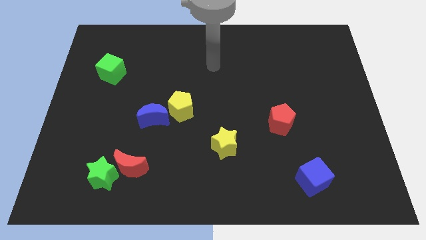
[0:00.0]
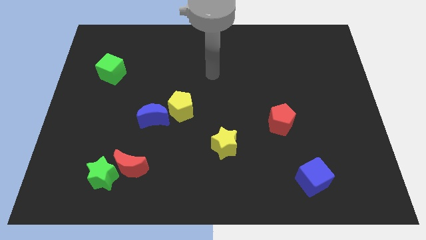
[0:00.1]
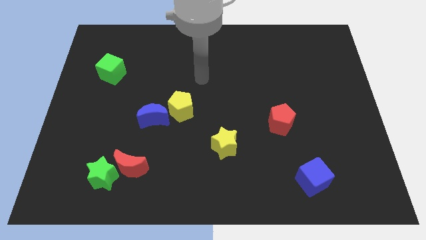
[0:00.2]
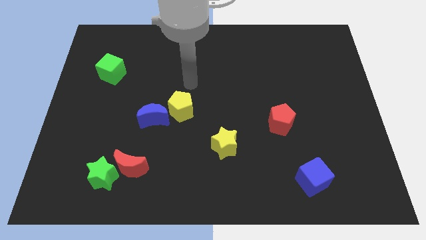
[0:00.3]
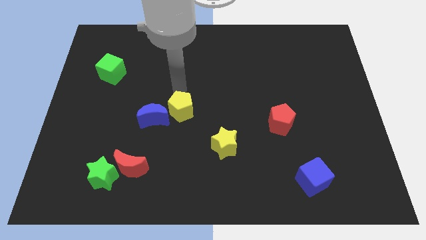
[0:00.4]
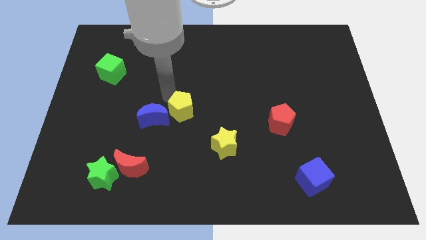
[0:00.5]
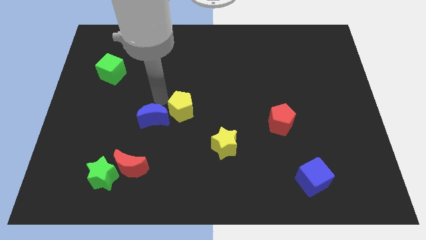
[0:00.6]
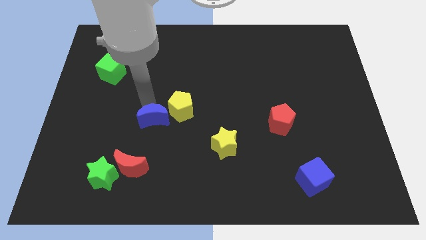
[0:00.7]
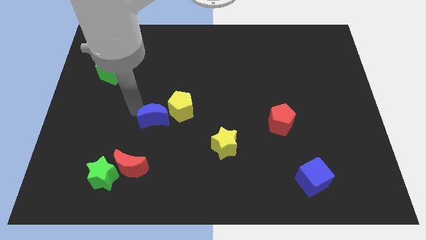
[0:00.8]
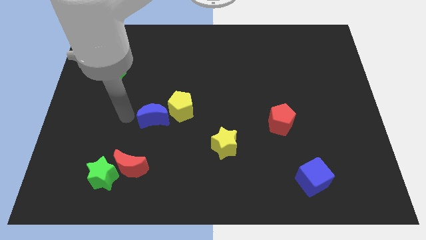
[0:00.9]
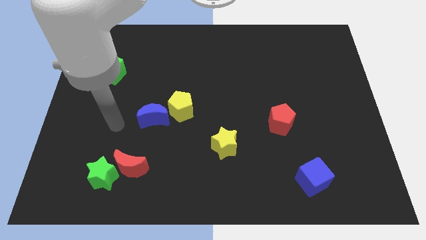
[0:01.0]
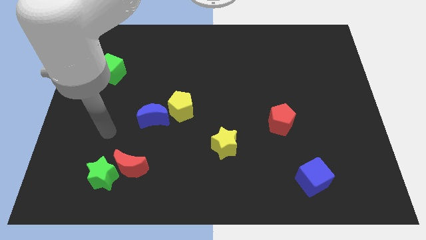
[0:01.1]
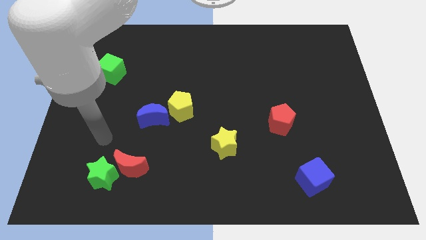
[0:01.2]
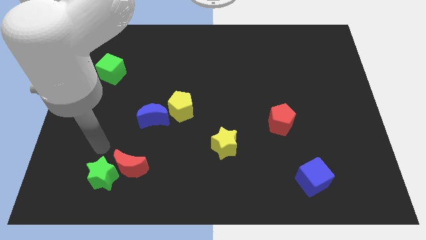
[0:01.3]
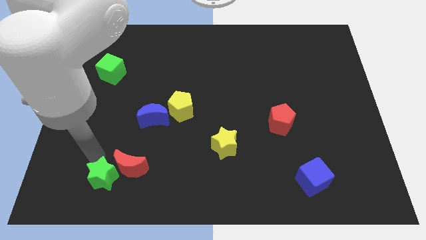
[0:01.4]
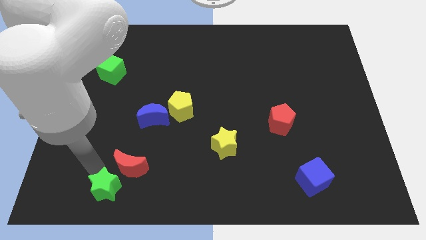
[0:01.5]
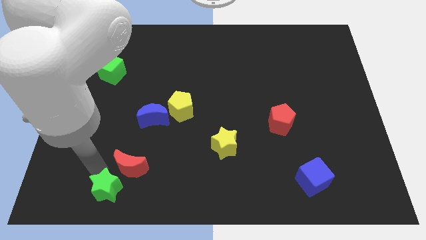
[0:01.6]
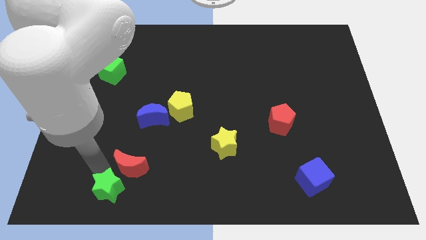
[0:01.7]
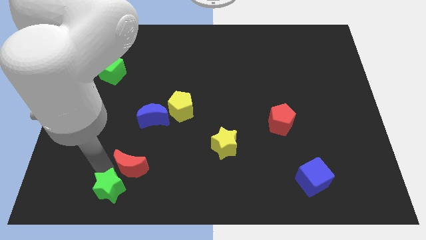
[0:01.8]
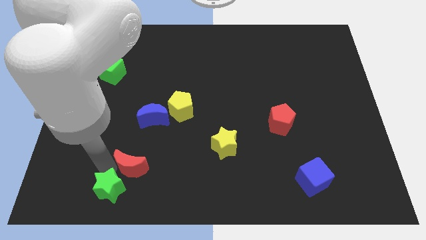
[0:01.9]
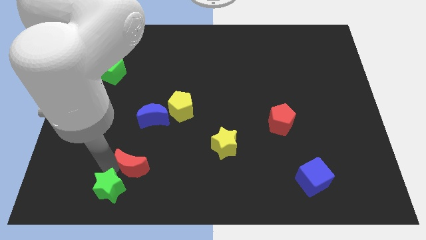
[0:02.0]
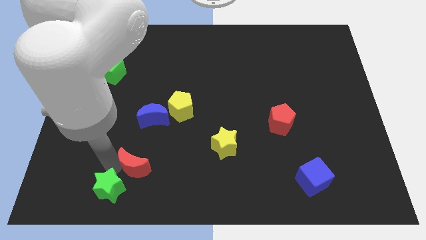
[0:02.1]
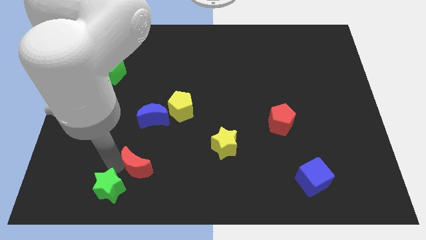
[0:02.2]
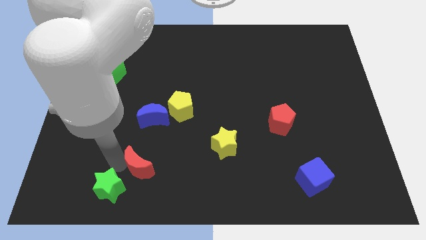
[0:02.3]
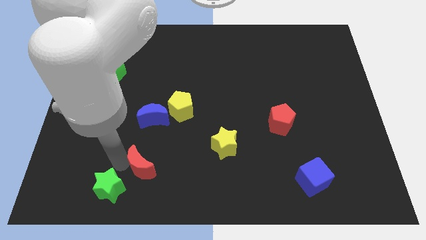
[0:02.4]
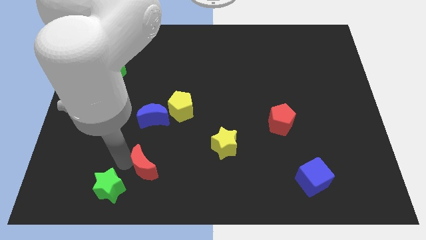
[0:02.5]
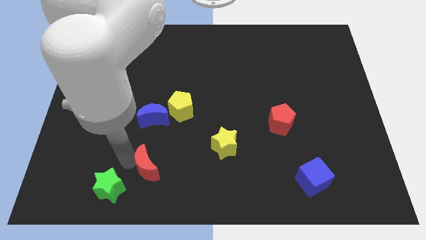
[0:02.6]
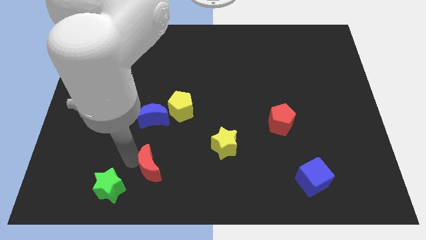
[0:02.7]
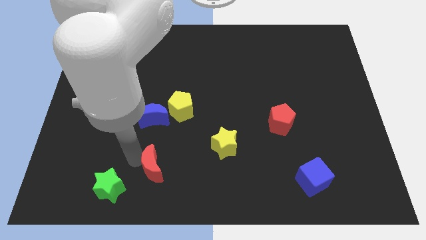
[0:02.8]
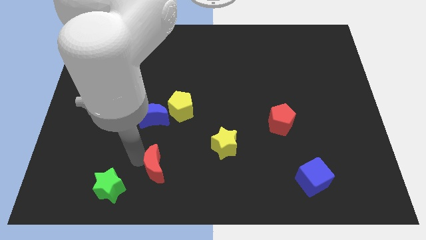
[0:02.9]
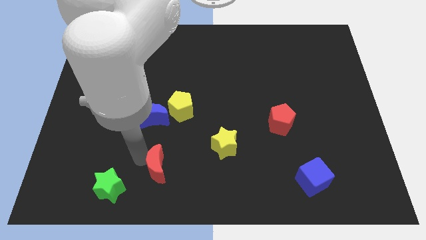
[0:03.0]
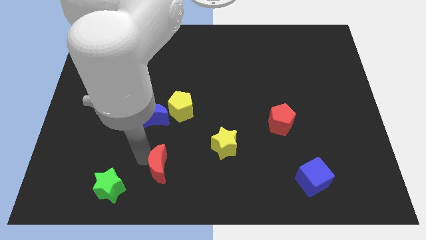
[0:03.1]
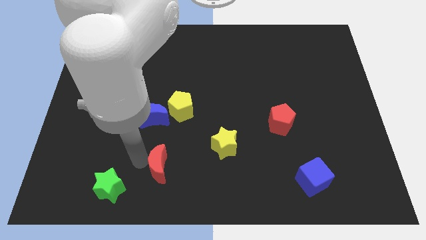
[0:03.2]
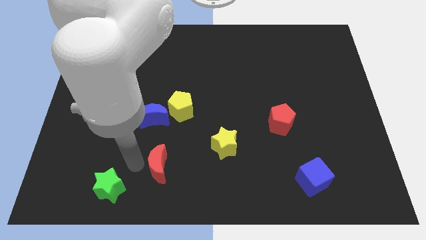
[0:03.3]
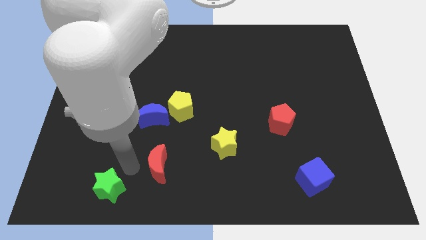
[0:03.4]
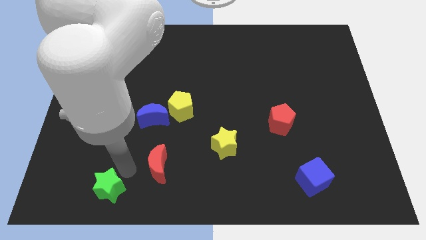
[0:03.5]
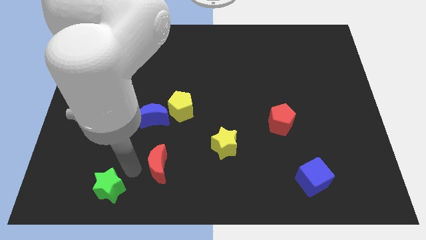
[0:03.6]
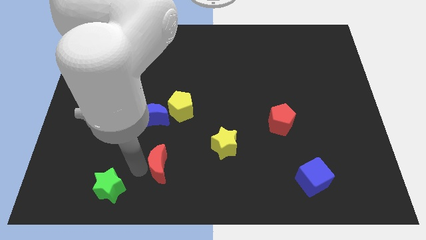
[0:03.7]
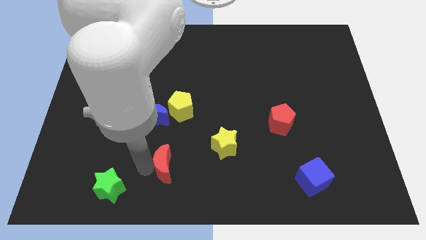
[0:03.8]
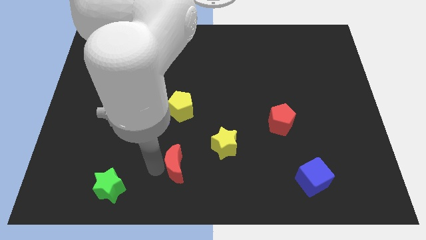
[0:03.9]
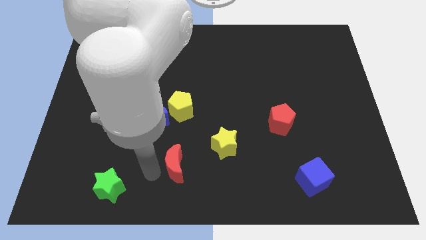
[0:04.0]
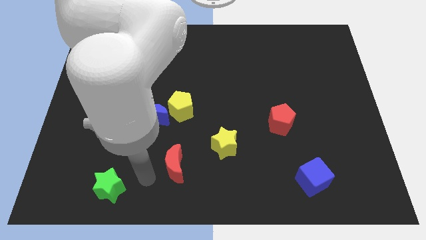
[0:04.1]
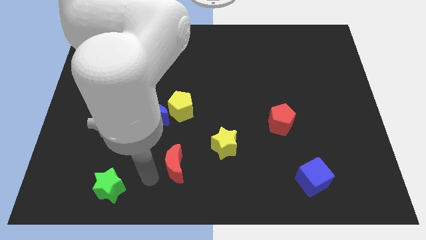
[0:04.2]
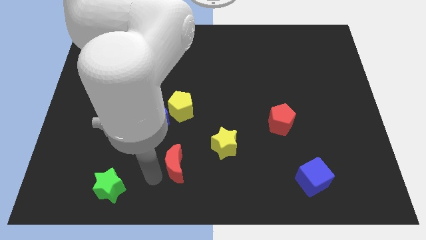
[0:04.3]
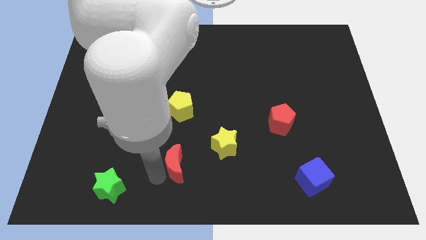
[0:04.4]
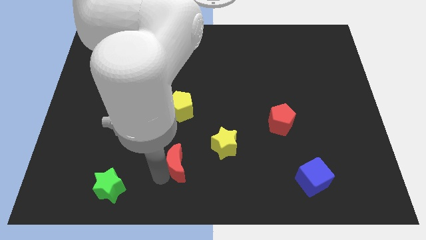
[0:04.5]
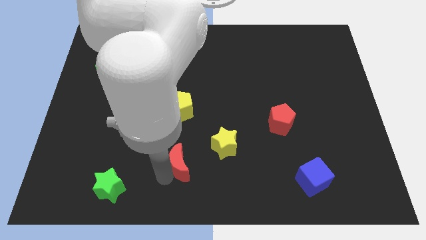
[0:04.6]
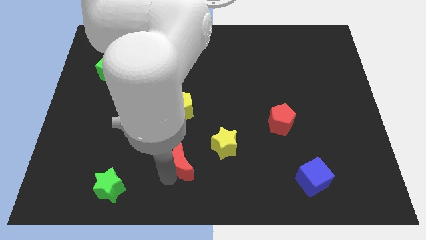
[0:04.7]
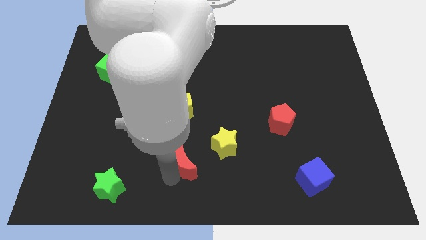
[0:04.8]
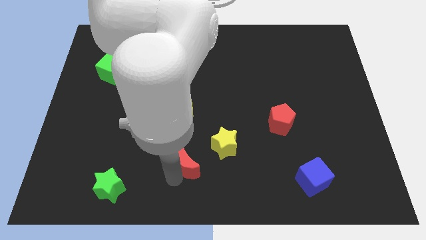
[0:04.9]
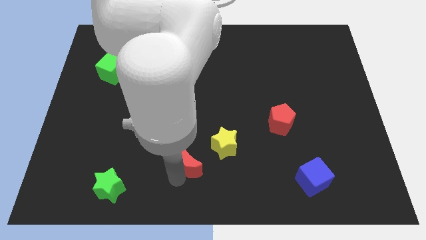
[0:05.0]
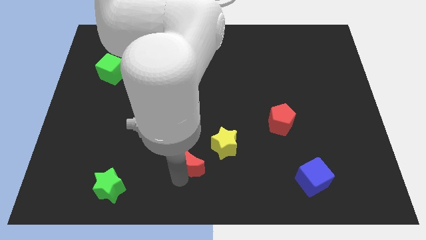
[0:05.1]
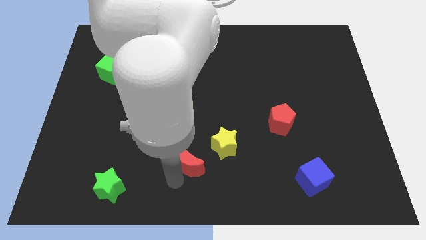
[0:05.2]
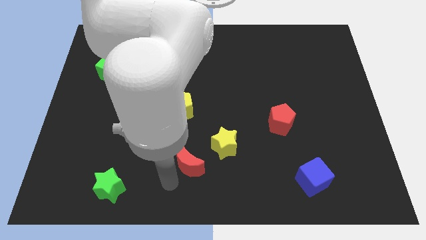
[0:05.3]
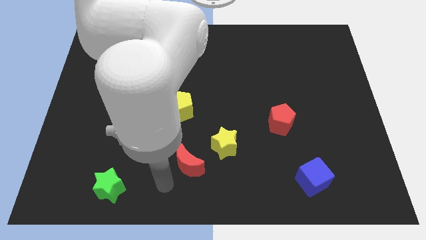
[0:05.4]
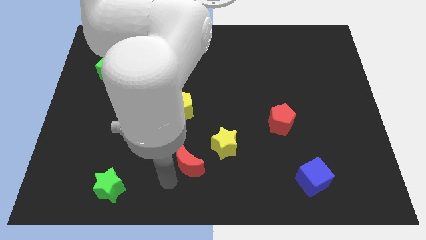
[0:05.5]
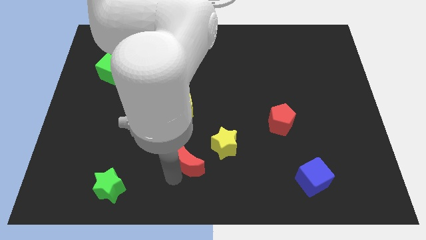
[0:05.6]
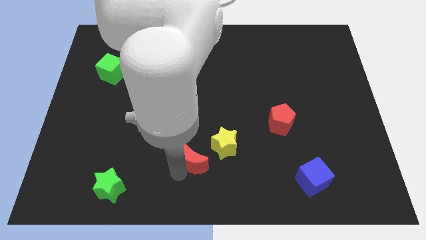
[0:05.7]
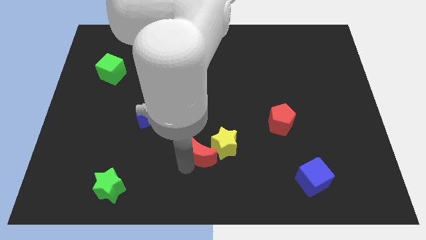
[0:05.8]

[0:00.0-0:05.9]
move the red moon next to the yellow star

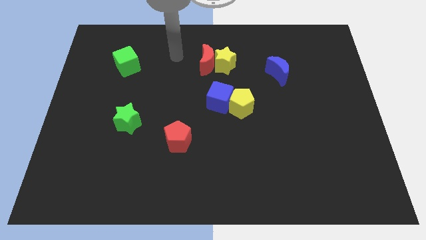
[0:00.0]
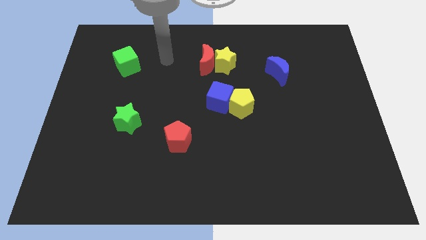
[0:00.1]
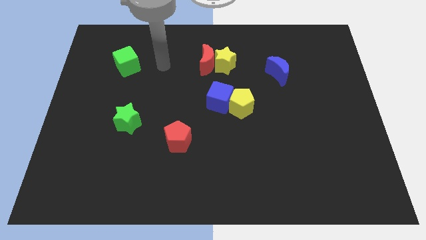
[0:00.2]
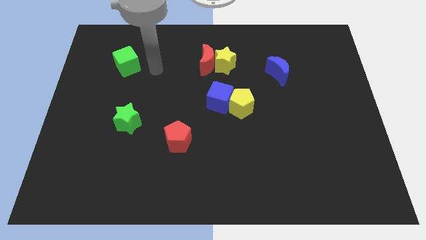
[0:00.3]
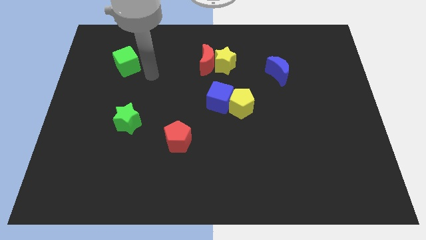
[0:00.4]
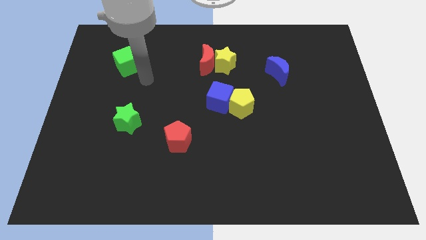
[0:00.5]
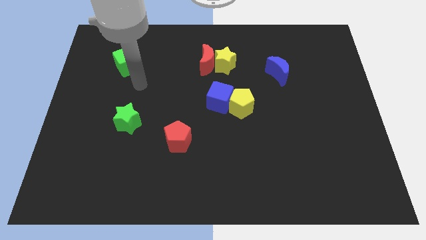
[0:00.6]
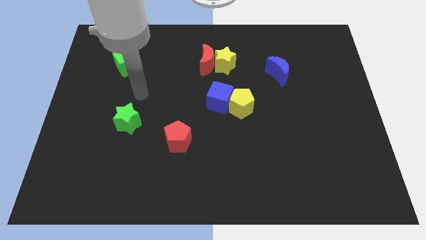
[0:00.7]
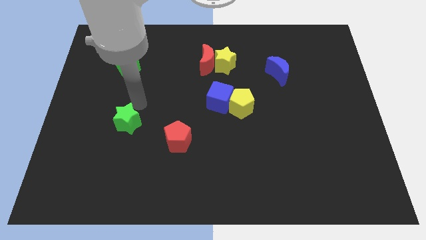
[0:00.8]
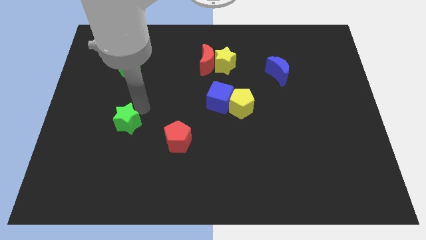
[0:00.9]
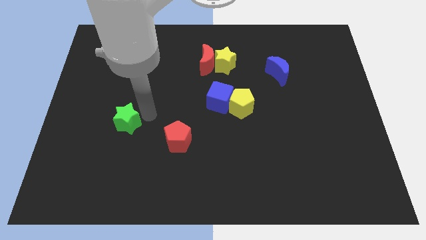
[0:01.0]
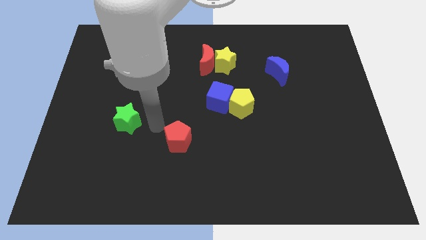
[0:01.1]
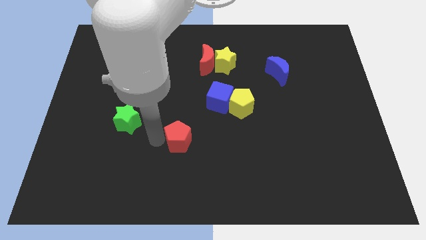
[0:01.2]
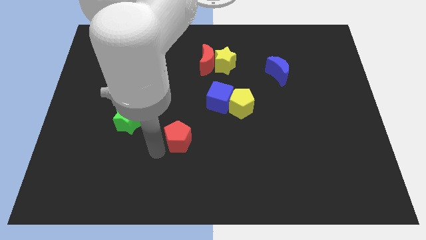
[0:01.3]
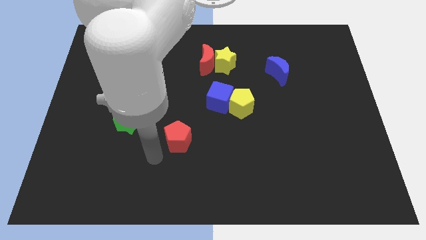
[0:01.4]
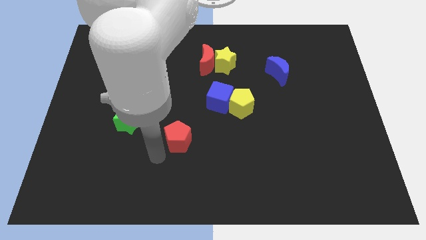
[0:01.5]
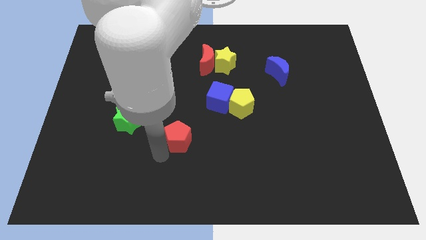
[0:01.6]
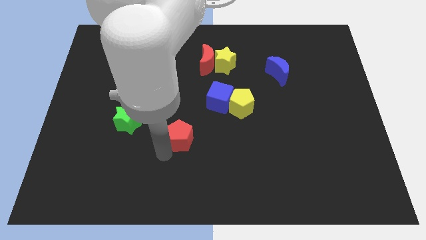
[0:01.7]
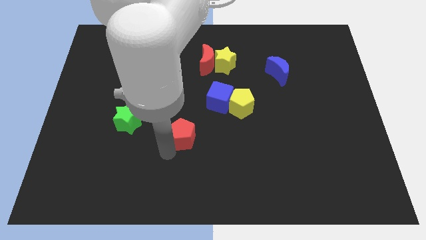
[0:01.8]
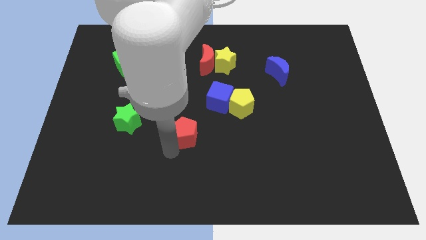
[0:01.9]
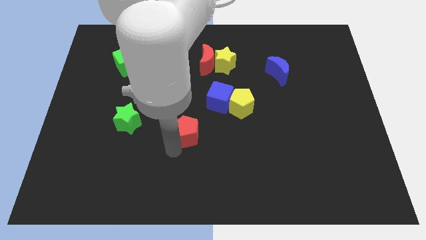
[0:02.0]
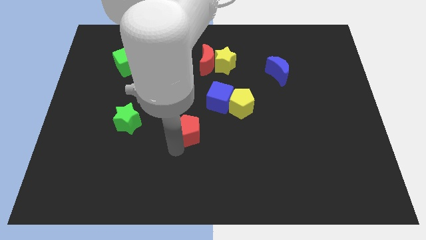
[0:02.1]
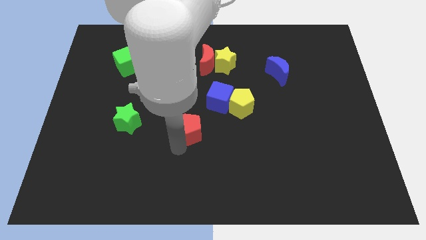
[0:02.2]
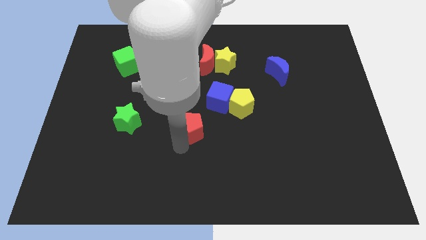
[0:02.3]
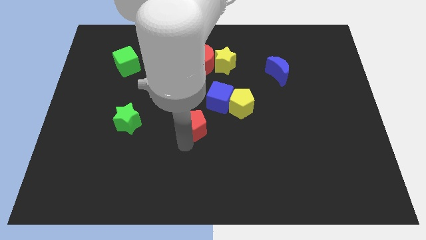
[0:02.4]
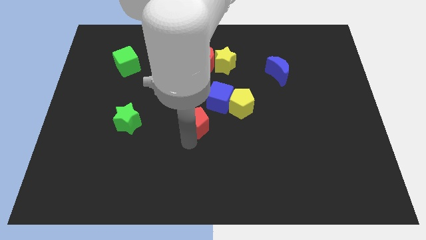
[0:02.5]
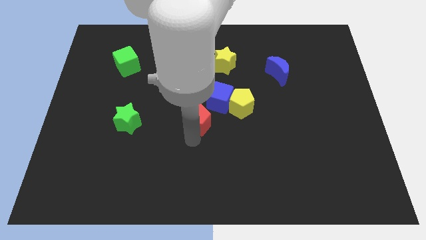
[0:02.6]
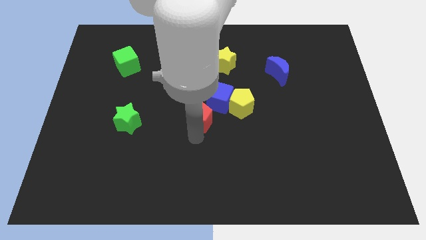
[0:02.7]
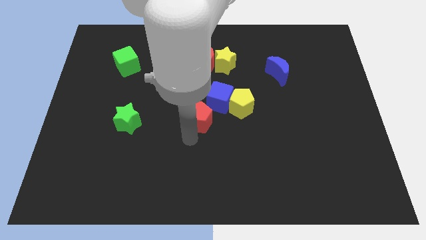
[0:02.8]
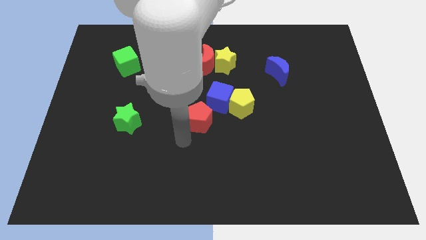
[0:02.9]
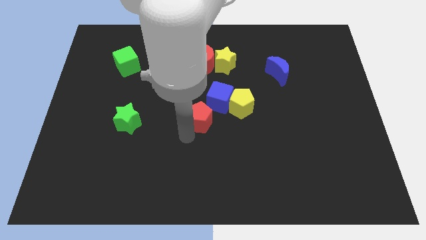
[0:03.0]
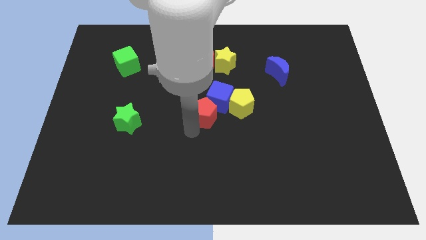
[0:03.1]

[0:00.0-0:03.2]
slide the red pentagon next to the blue cube
